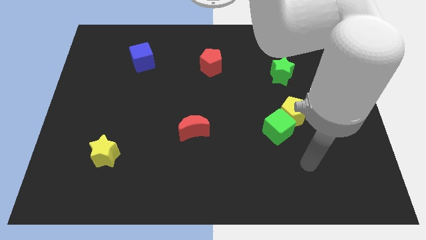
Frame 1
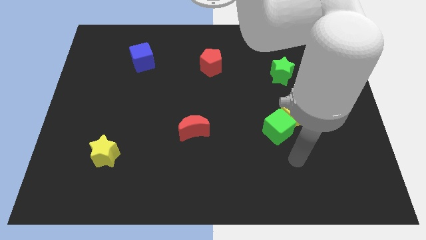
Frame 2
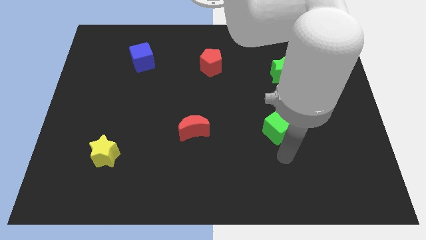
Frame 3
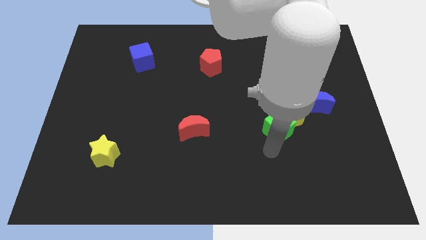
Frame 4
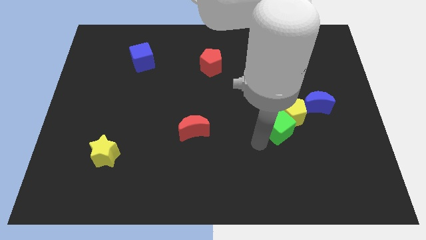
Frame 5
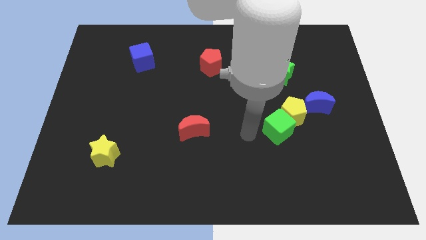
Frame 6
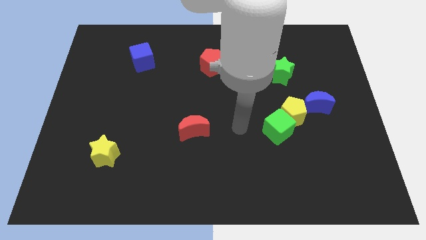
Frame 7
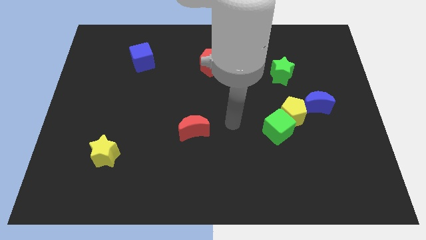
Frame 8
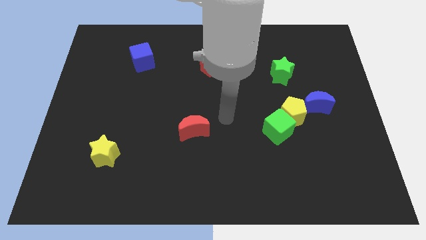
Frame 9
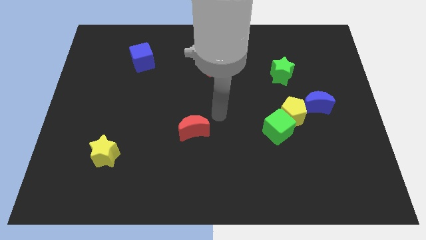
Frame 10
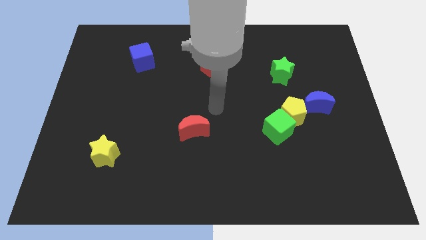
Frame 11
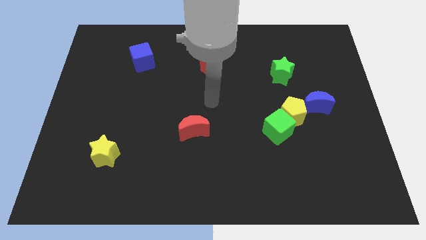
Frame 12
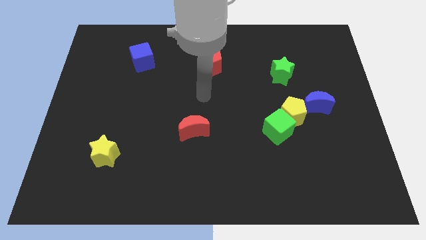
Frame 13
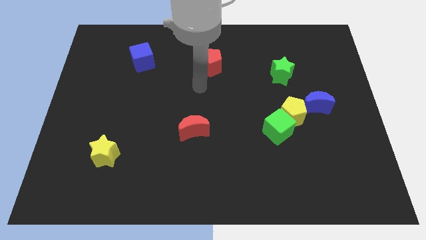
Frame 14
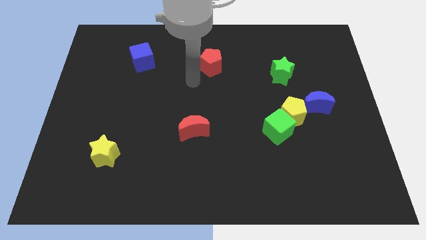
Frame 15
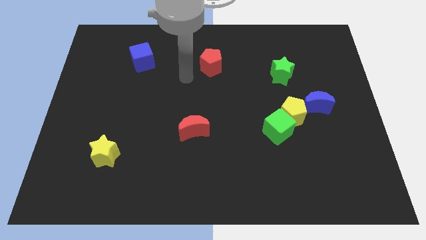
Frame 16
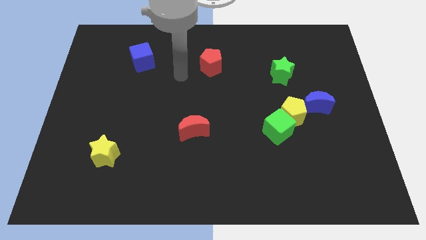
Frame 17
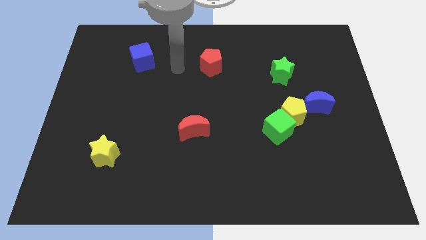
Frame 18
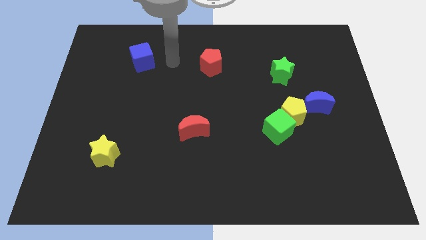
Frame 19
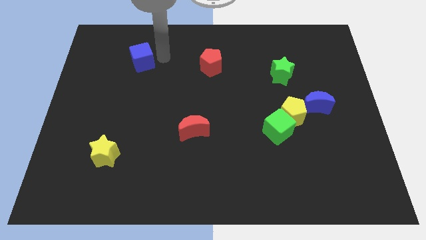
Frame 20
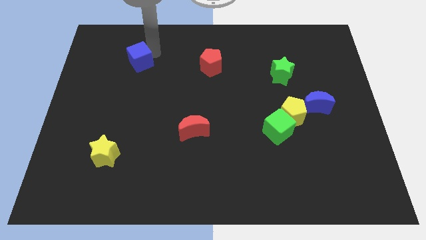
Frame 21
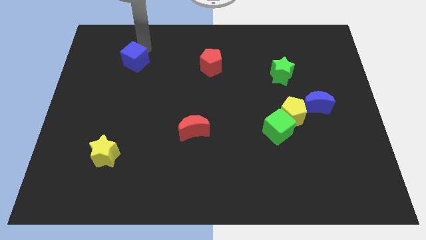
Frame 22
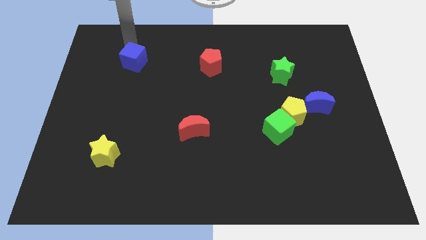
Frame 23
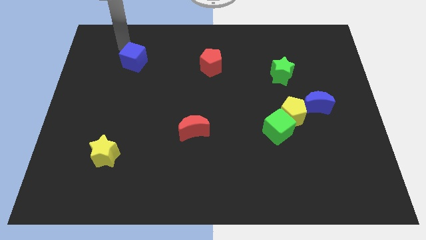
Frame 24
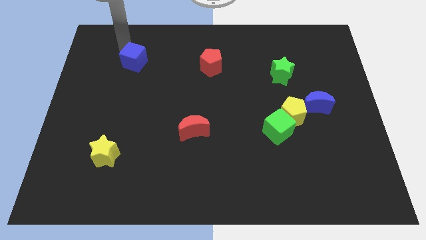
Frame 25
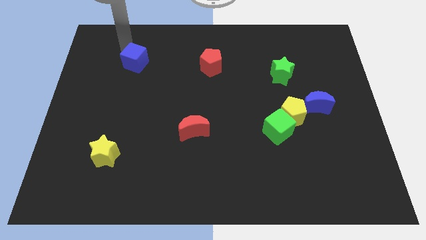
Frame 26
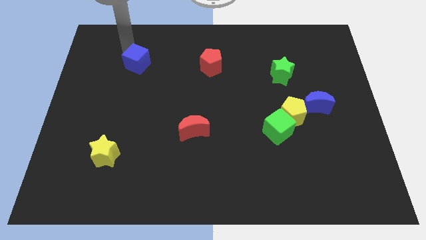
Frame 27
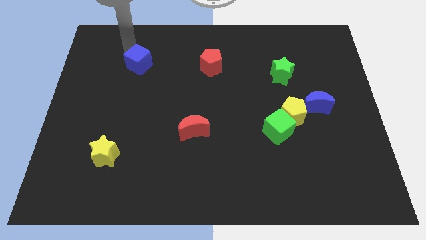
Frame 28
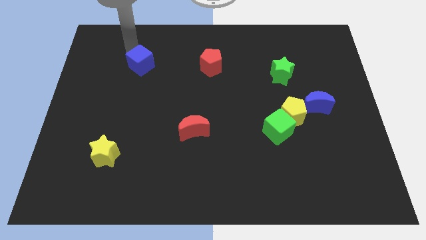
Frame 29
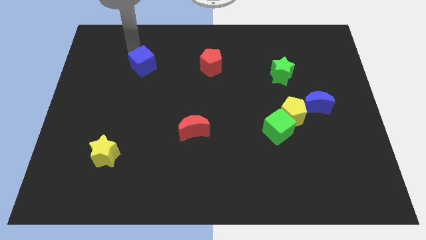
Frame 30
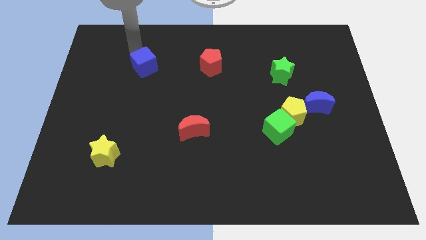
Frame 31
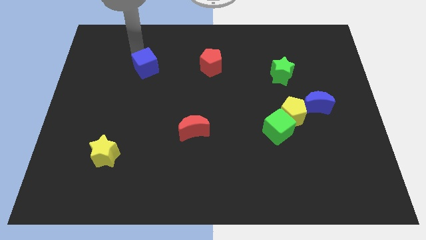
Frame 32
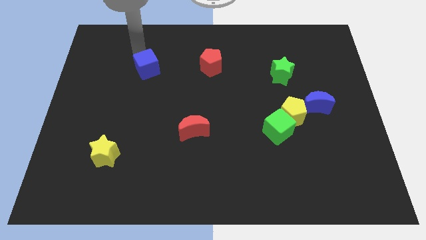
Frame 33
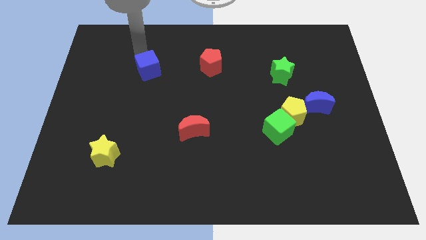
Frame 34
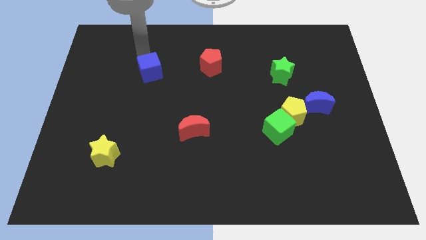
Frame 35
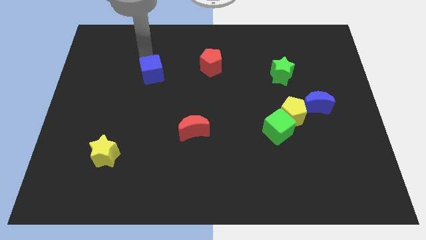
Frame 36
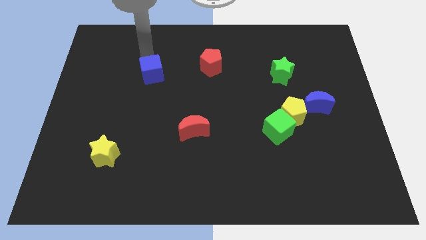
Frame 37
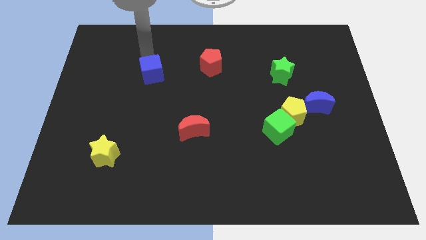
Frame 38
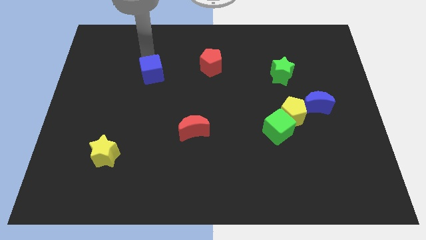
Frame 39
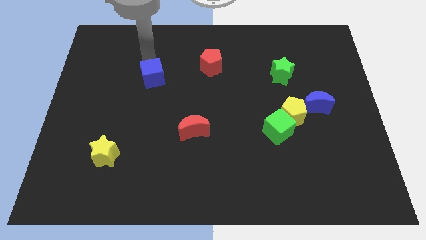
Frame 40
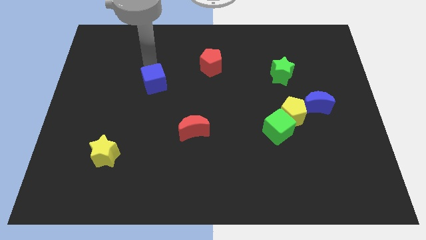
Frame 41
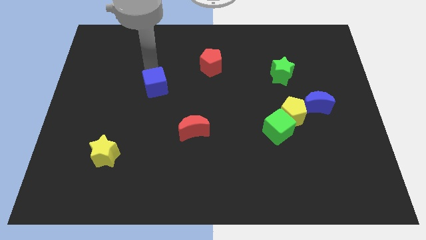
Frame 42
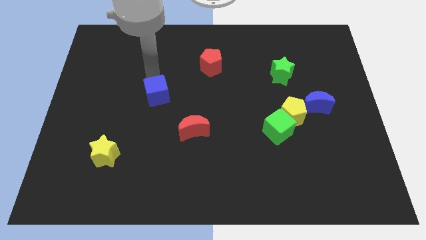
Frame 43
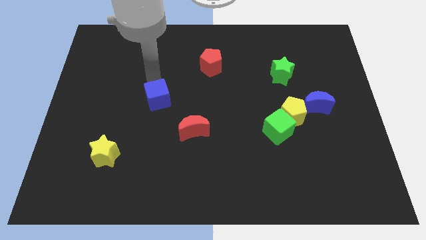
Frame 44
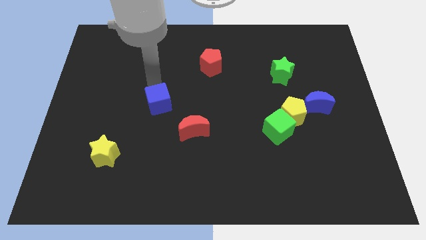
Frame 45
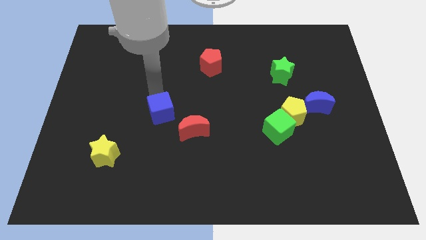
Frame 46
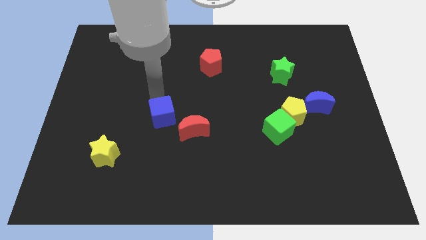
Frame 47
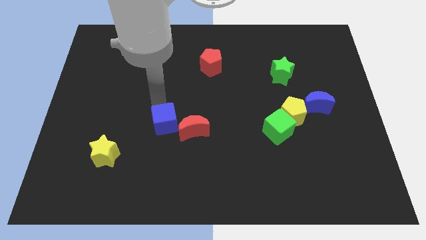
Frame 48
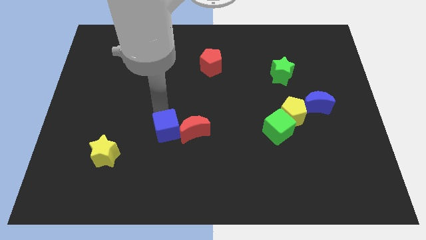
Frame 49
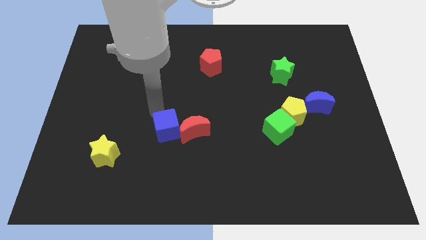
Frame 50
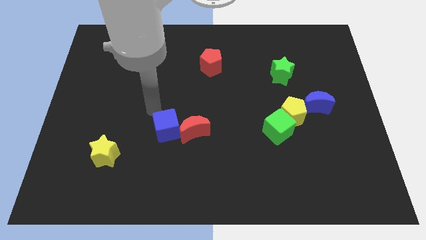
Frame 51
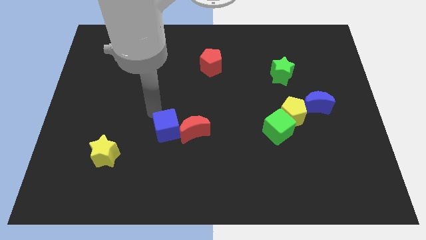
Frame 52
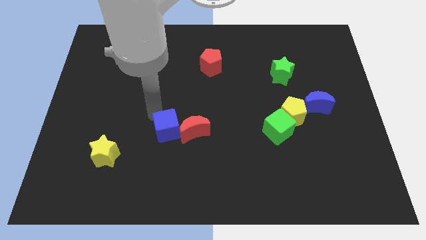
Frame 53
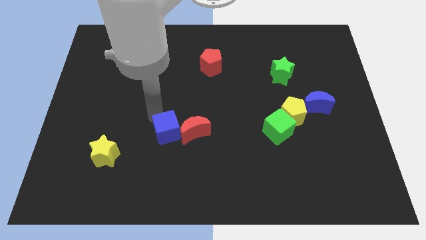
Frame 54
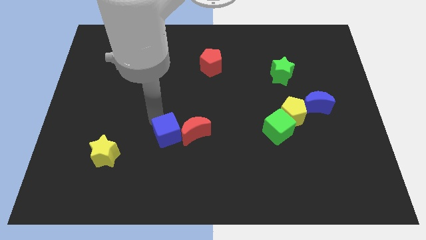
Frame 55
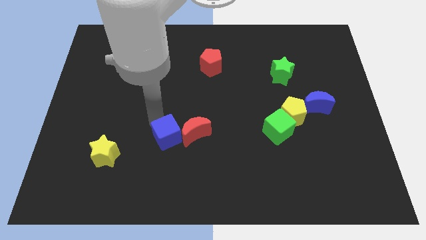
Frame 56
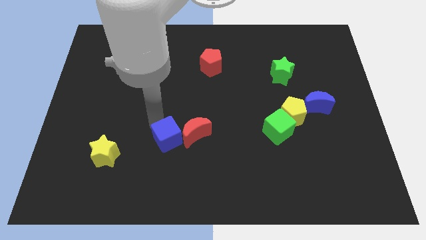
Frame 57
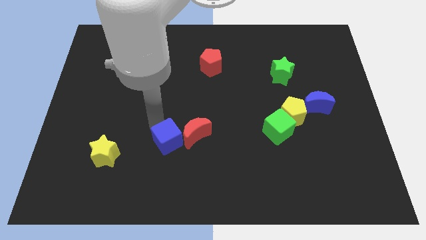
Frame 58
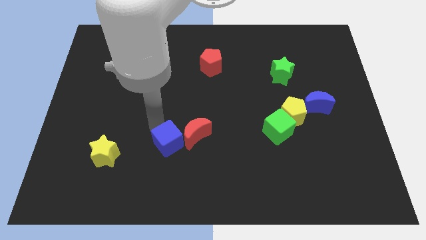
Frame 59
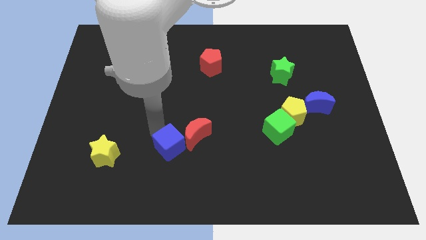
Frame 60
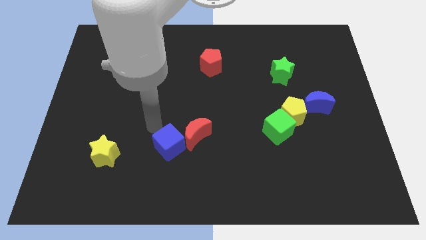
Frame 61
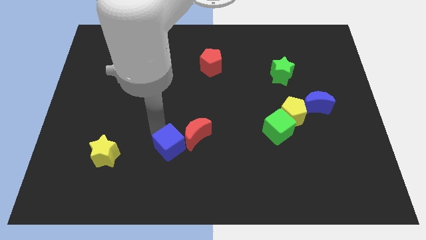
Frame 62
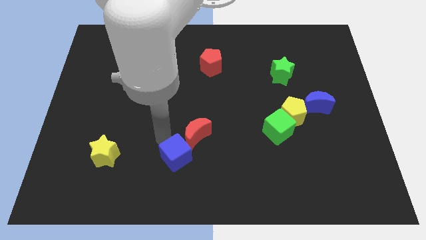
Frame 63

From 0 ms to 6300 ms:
move the blue cube to the bottom side of the red moon

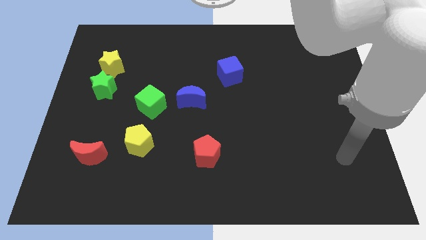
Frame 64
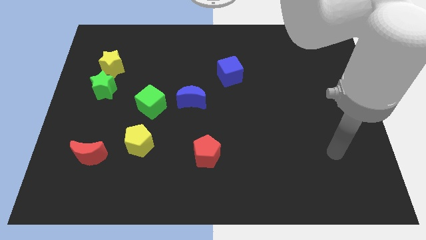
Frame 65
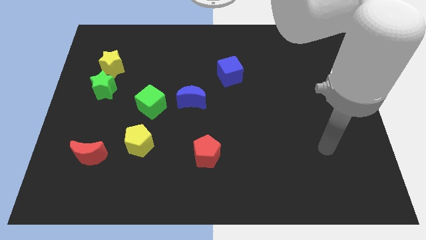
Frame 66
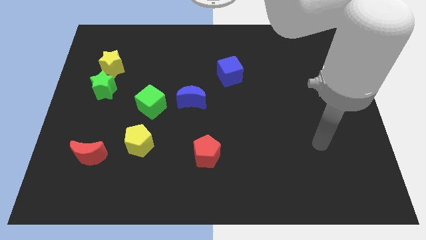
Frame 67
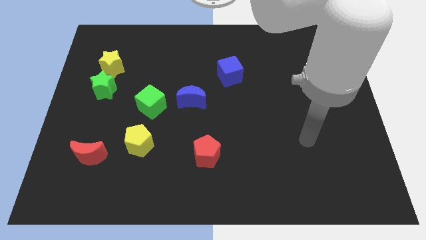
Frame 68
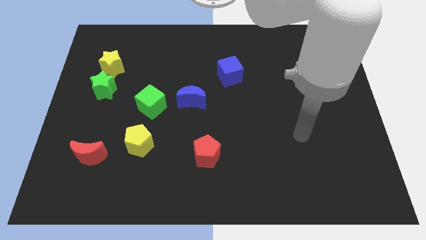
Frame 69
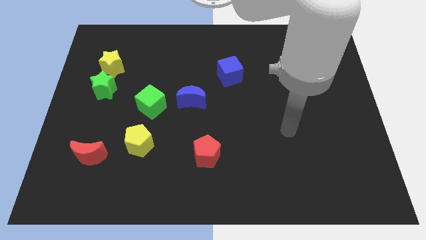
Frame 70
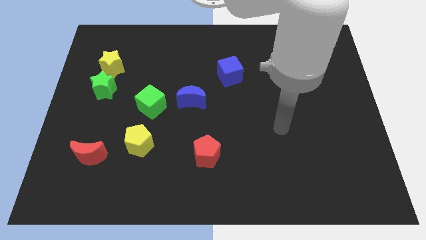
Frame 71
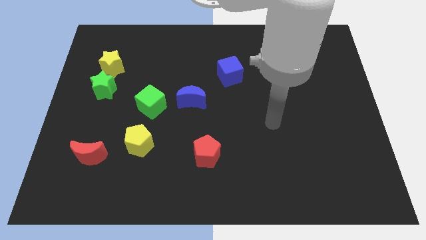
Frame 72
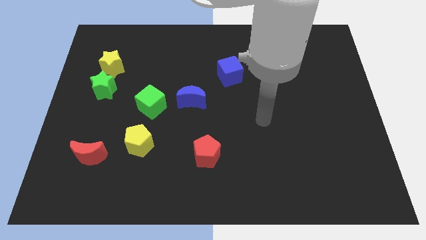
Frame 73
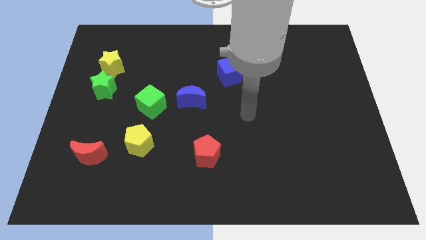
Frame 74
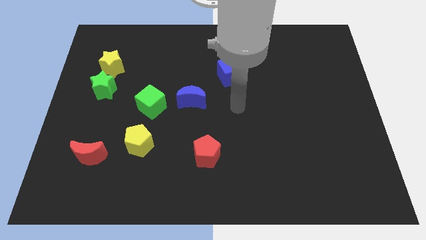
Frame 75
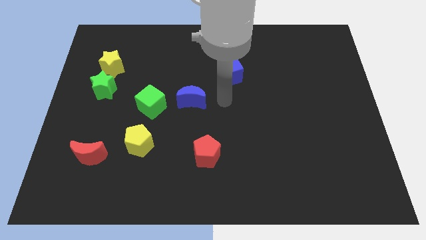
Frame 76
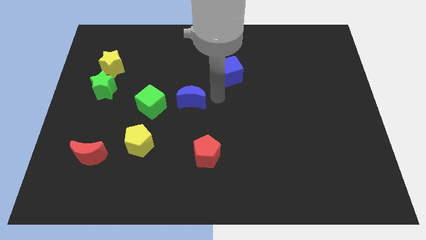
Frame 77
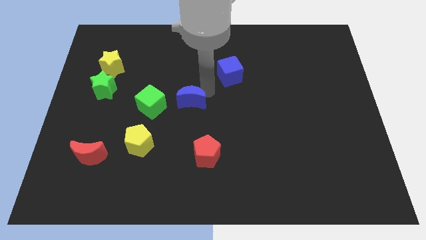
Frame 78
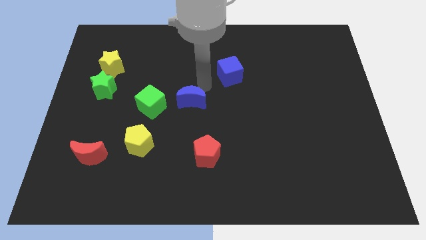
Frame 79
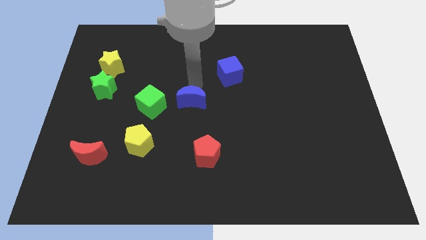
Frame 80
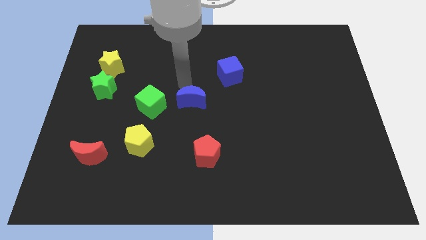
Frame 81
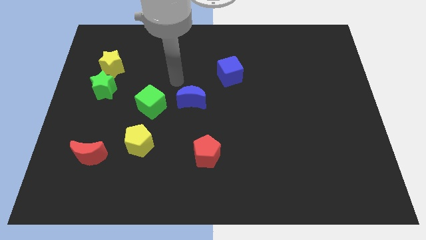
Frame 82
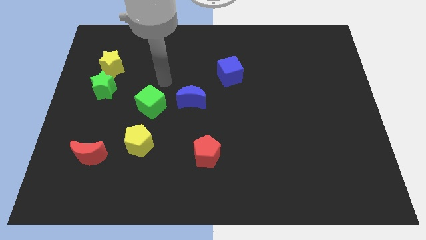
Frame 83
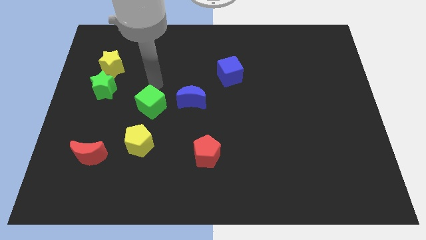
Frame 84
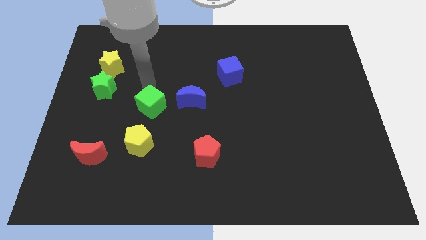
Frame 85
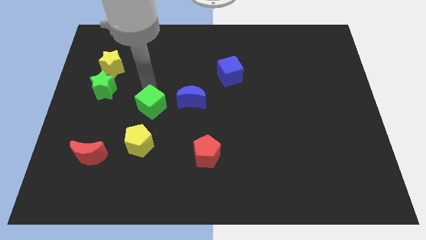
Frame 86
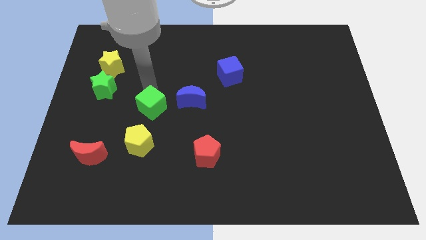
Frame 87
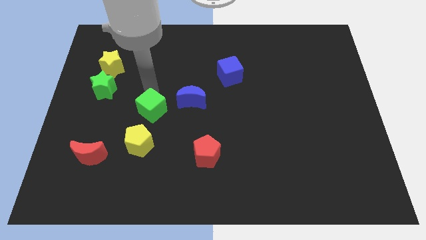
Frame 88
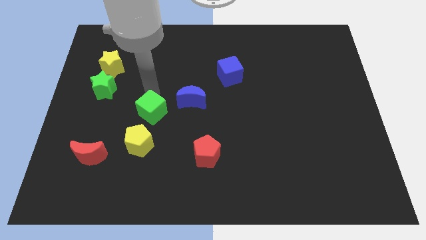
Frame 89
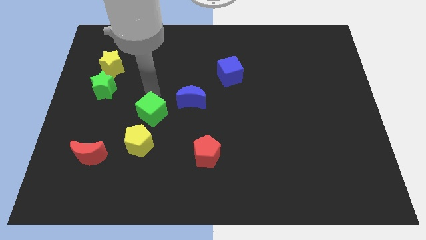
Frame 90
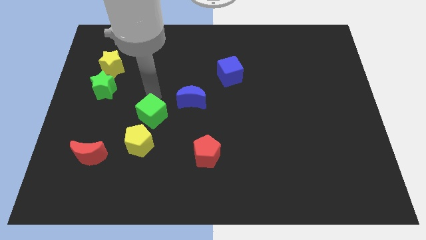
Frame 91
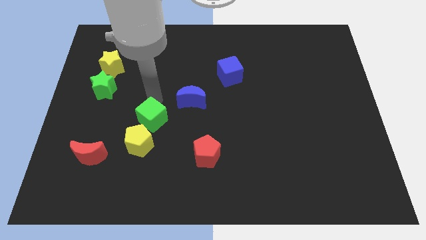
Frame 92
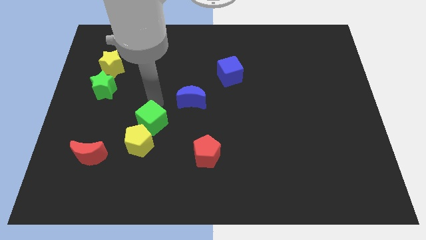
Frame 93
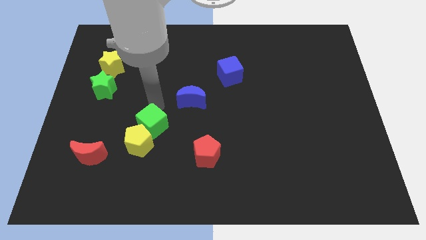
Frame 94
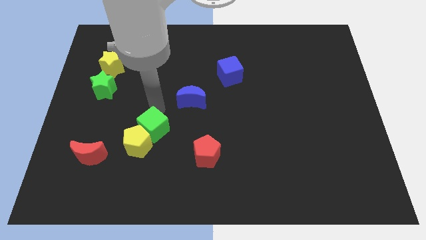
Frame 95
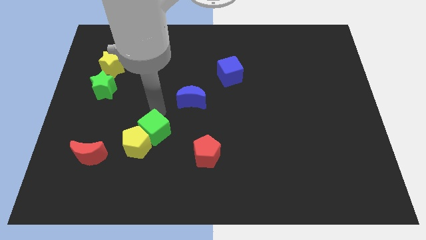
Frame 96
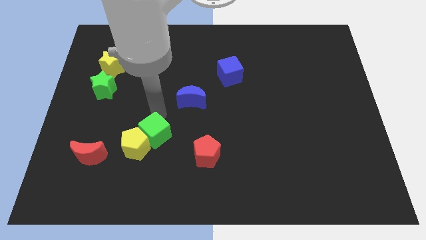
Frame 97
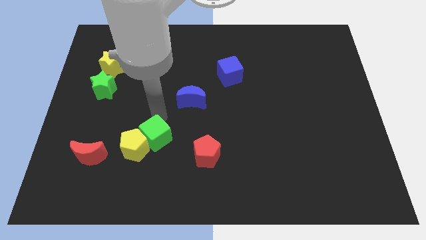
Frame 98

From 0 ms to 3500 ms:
slide the green cube just left of the red pentagon
